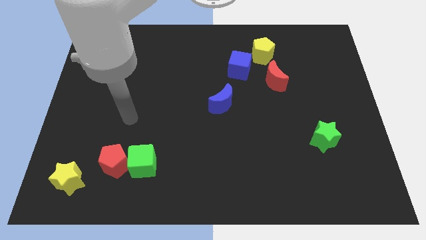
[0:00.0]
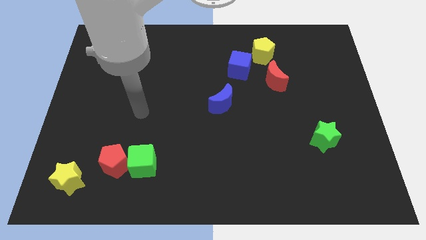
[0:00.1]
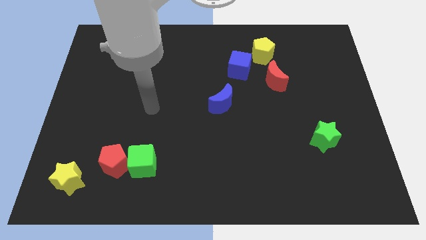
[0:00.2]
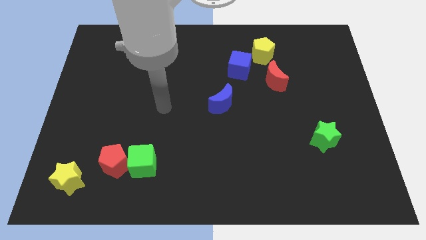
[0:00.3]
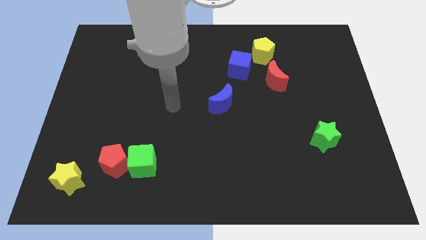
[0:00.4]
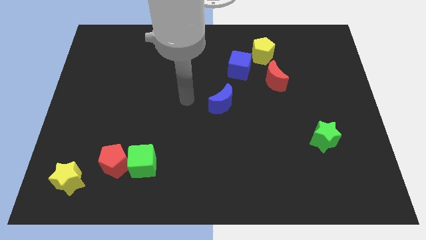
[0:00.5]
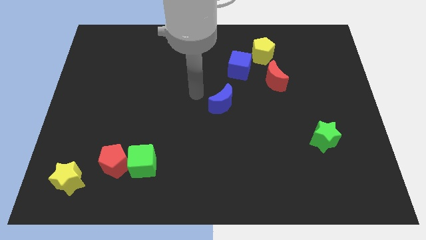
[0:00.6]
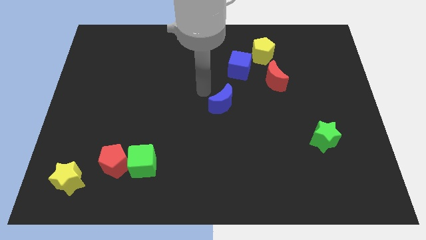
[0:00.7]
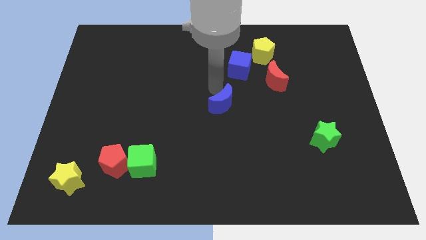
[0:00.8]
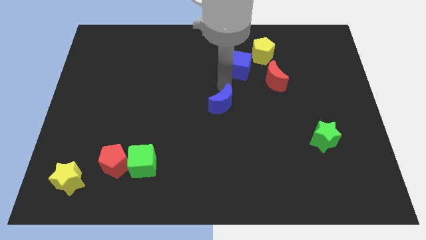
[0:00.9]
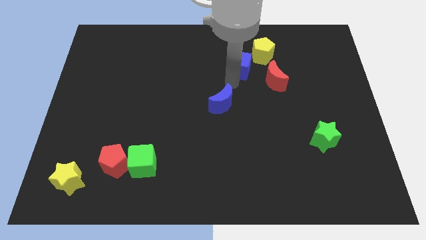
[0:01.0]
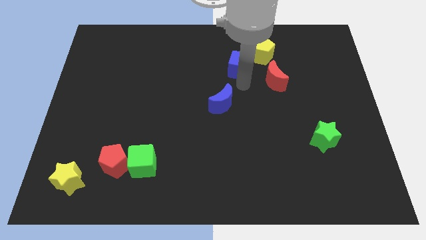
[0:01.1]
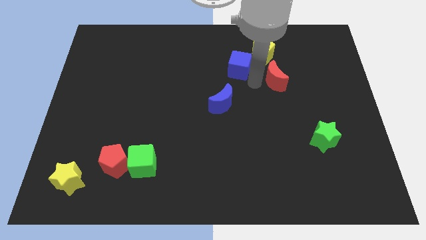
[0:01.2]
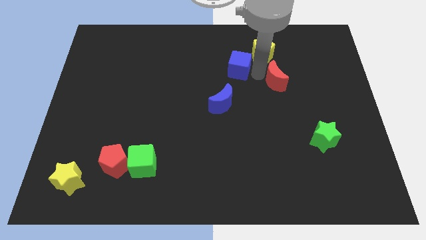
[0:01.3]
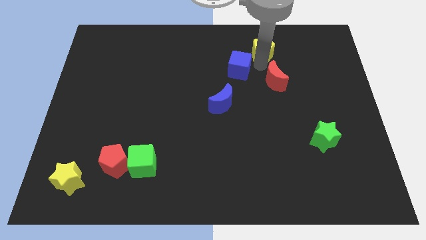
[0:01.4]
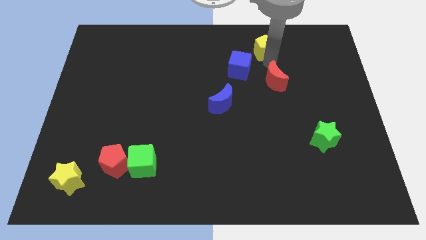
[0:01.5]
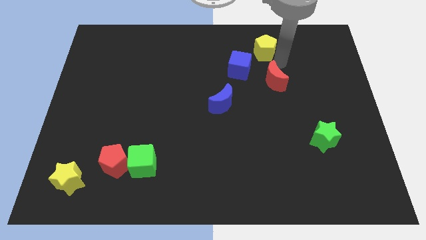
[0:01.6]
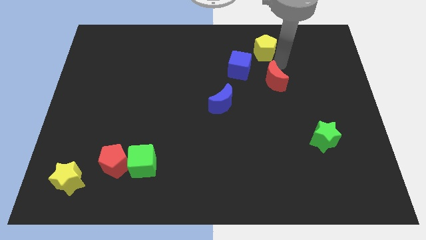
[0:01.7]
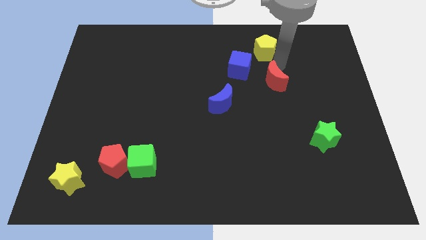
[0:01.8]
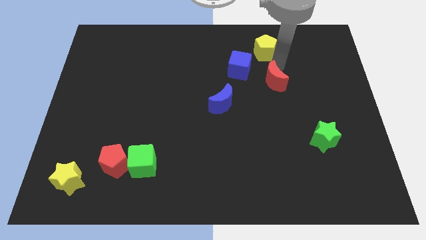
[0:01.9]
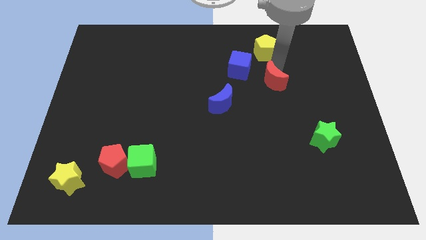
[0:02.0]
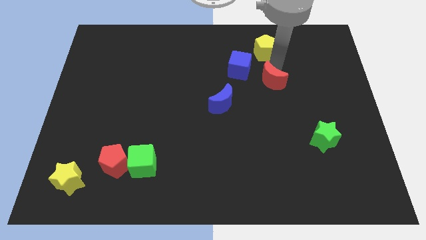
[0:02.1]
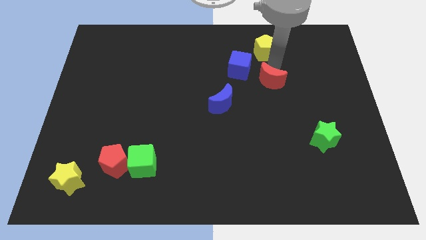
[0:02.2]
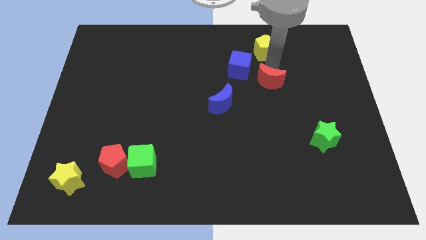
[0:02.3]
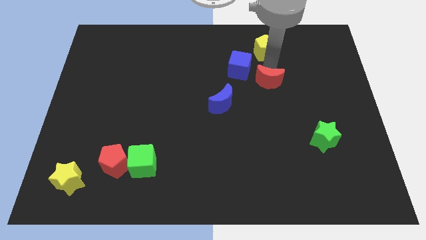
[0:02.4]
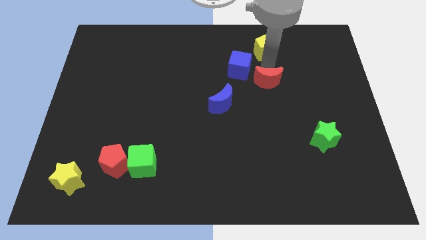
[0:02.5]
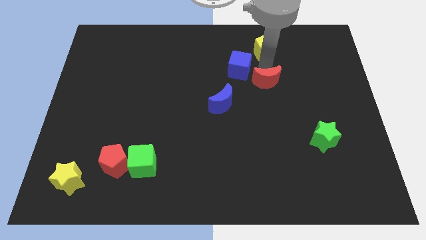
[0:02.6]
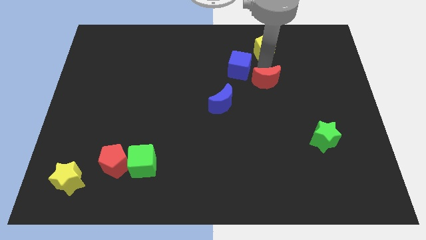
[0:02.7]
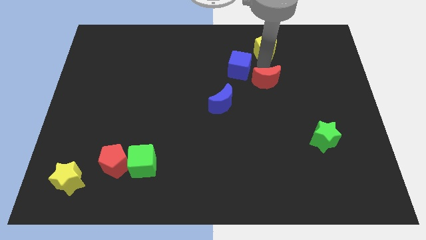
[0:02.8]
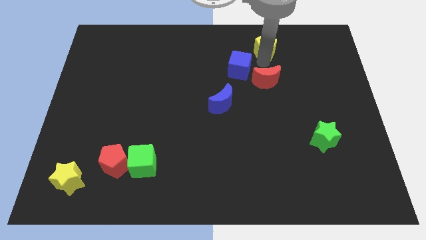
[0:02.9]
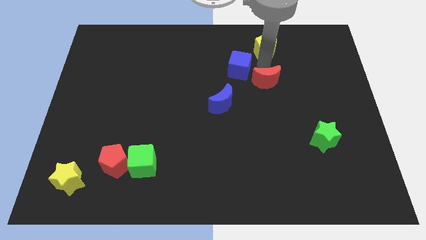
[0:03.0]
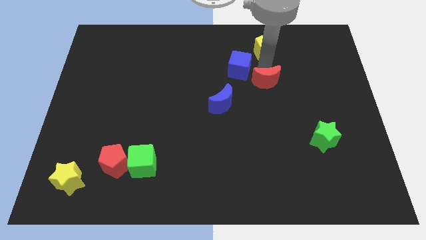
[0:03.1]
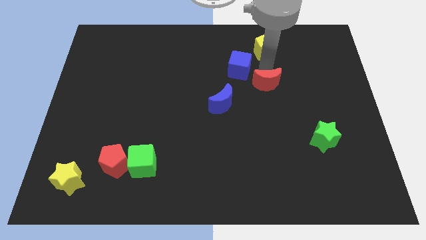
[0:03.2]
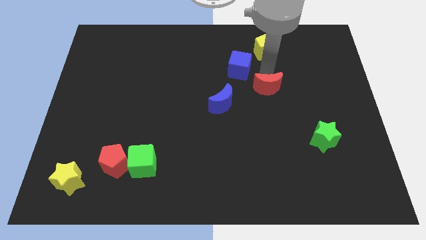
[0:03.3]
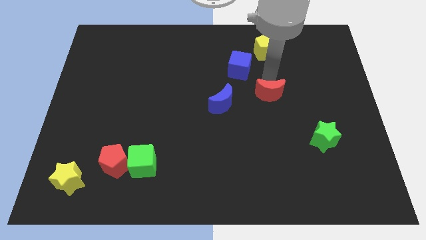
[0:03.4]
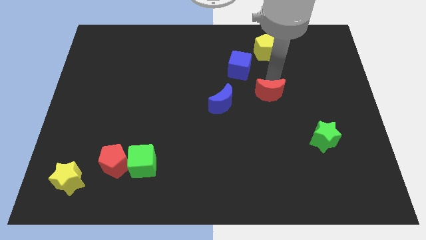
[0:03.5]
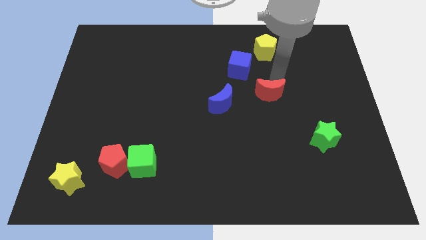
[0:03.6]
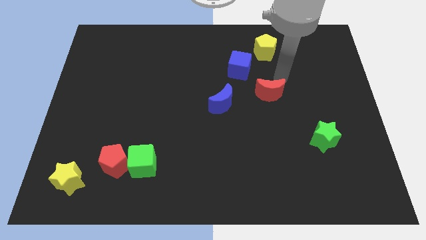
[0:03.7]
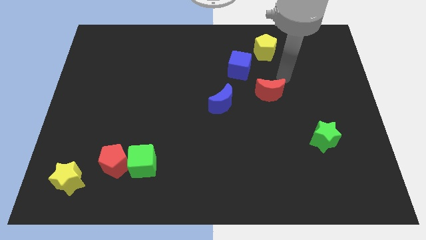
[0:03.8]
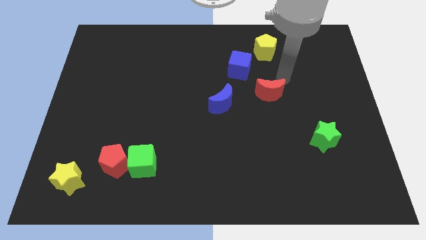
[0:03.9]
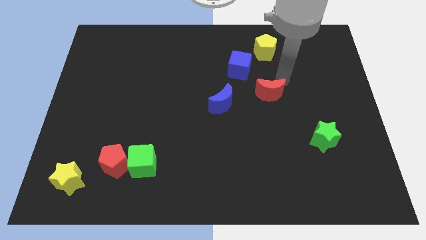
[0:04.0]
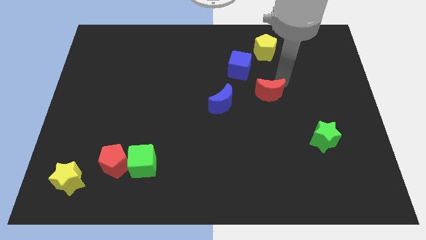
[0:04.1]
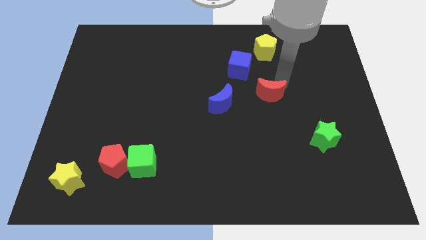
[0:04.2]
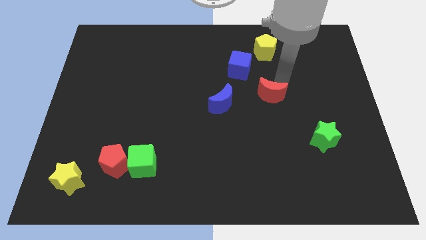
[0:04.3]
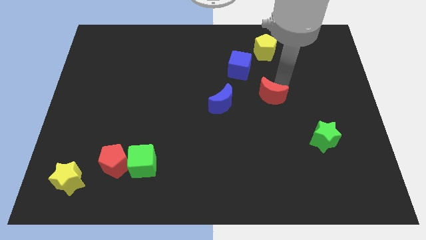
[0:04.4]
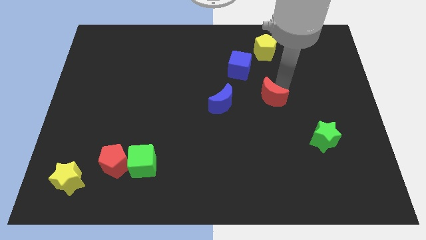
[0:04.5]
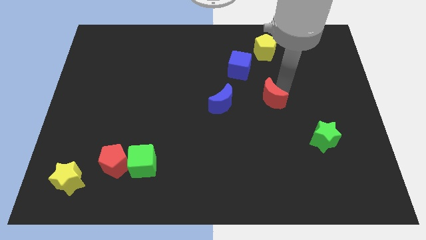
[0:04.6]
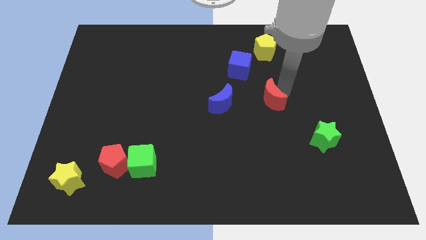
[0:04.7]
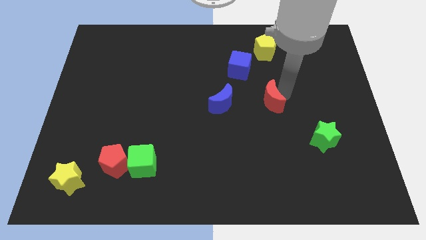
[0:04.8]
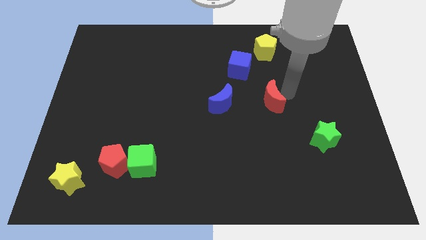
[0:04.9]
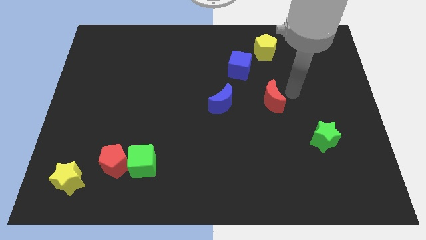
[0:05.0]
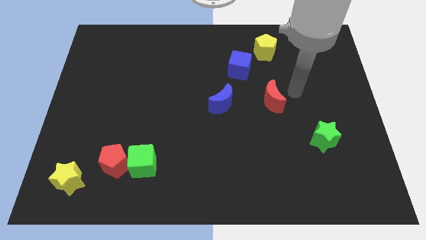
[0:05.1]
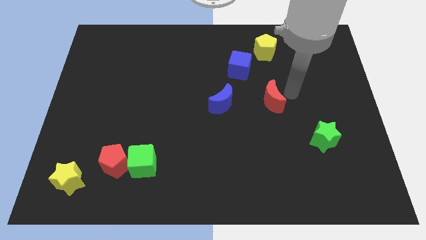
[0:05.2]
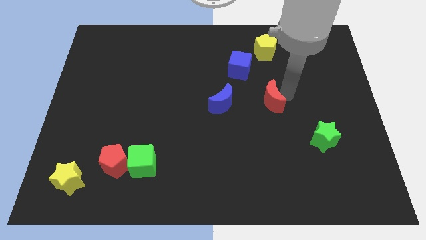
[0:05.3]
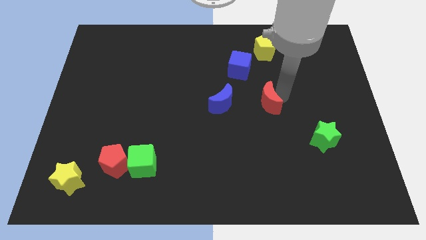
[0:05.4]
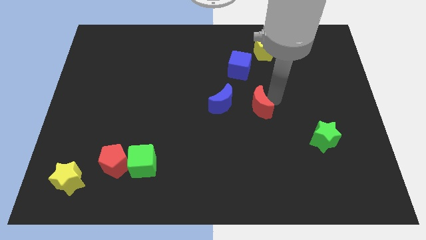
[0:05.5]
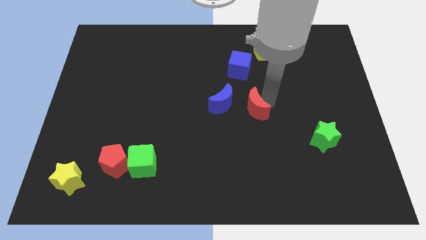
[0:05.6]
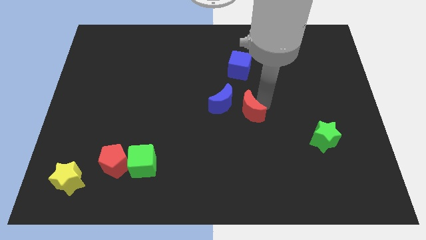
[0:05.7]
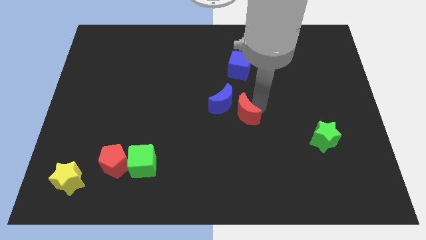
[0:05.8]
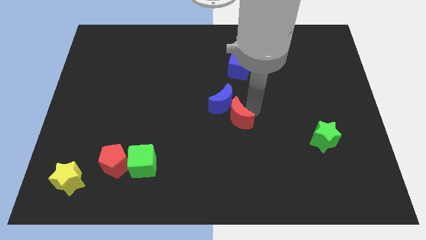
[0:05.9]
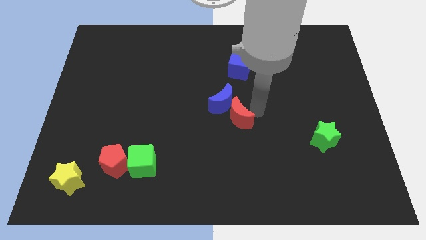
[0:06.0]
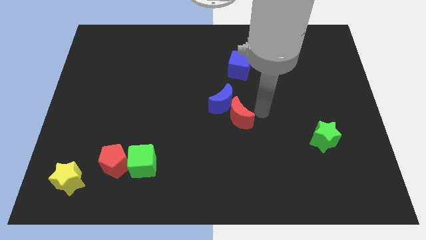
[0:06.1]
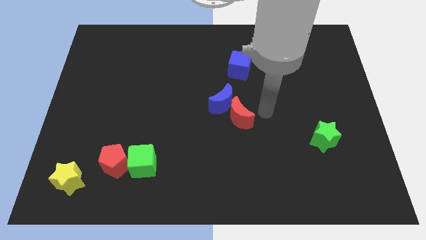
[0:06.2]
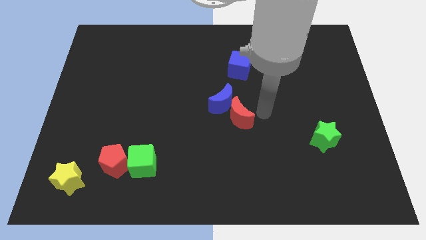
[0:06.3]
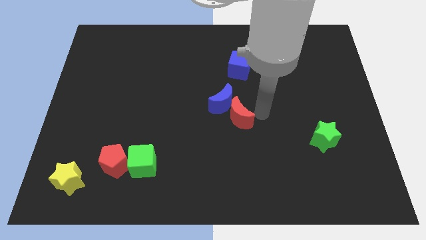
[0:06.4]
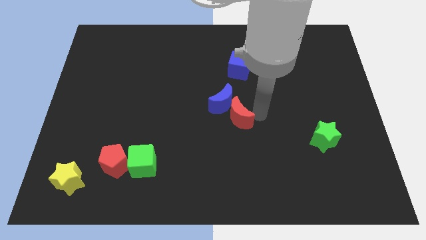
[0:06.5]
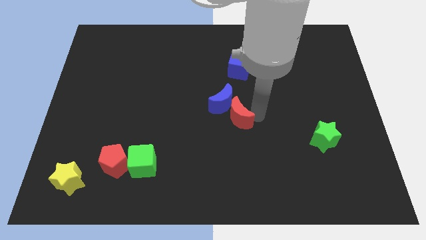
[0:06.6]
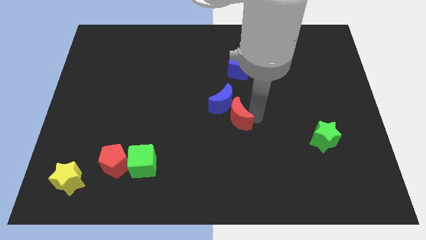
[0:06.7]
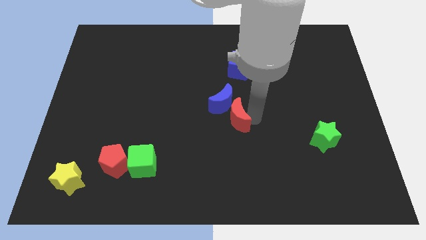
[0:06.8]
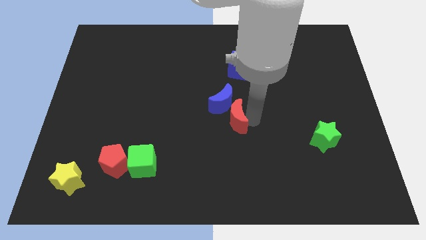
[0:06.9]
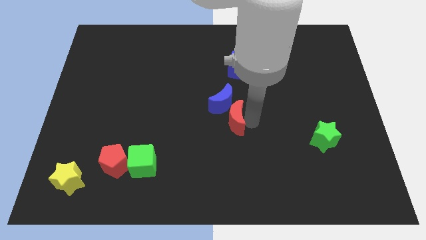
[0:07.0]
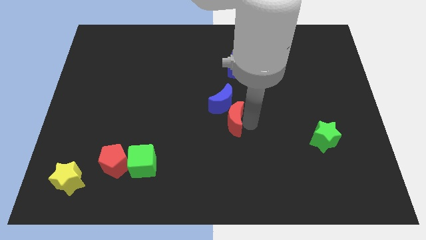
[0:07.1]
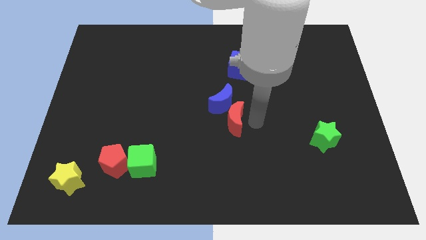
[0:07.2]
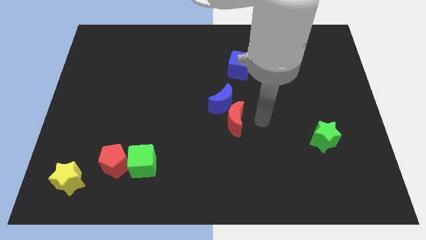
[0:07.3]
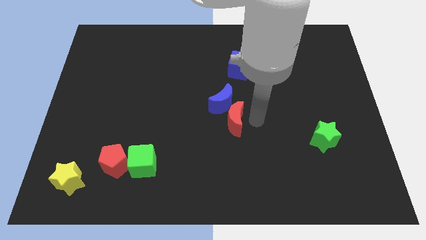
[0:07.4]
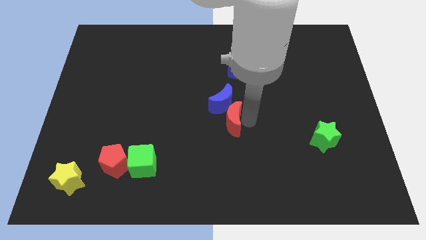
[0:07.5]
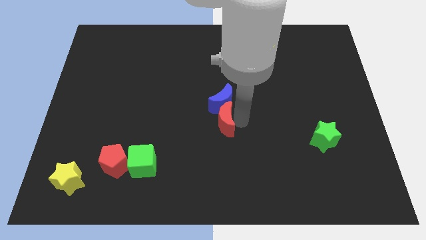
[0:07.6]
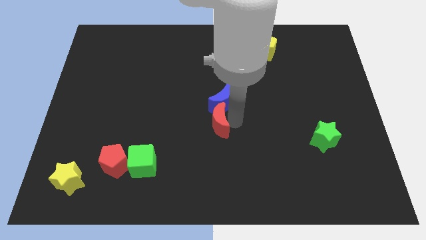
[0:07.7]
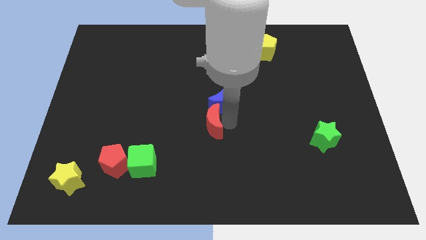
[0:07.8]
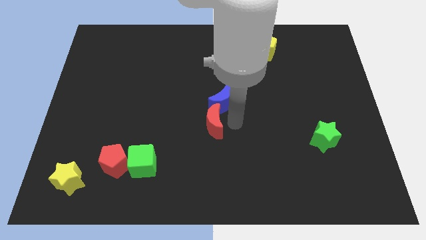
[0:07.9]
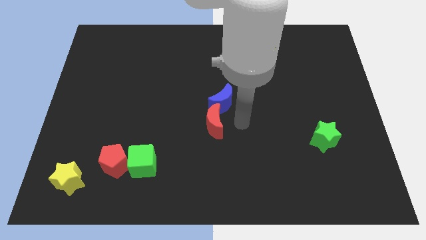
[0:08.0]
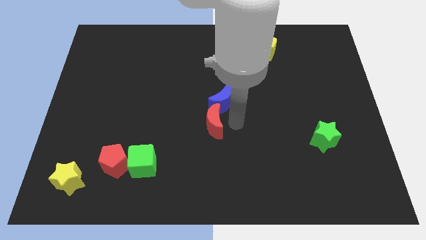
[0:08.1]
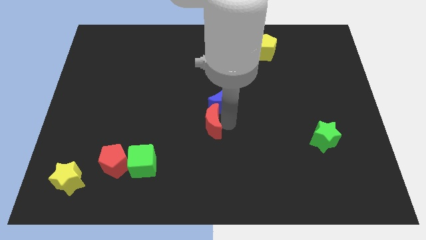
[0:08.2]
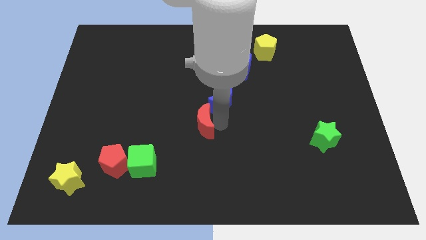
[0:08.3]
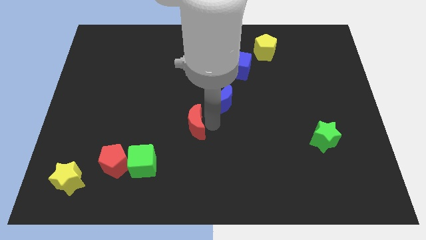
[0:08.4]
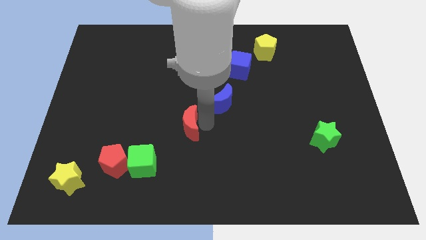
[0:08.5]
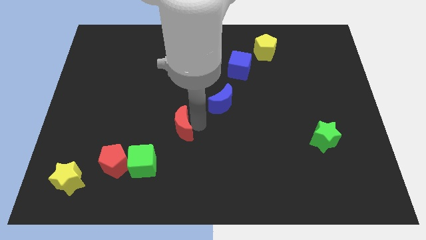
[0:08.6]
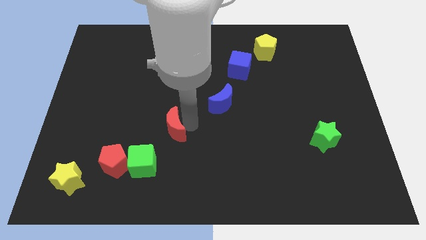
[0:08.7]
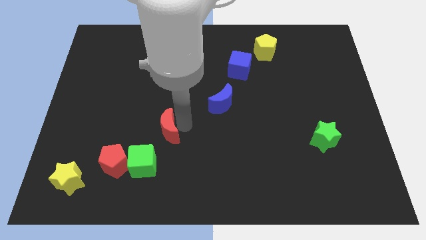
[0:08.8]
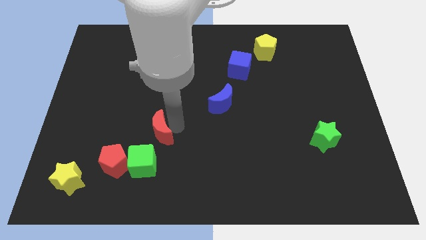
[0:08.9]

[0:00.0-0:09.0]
put the red moon to the top right of the red pentagon
